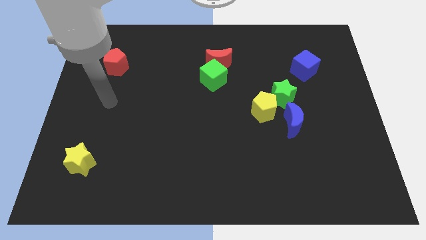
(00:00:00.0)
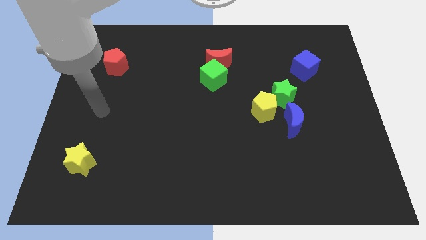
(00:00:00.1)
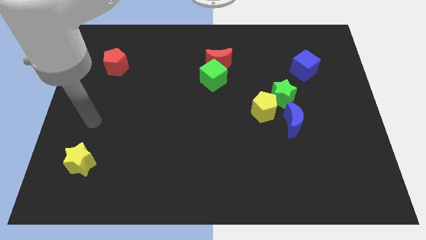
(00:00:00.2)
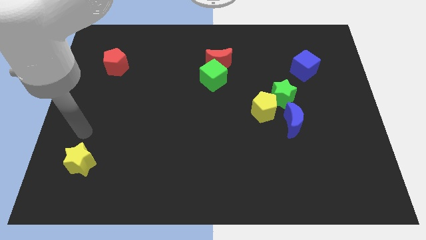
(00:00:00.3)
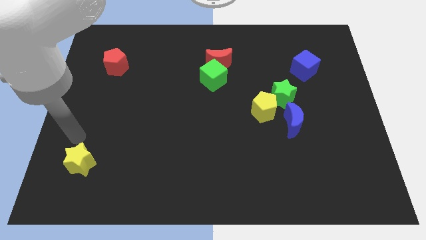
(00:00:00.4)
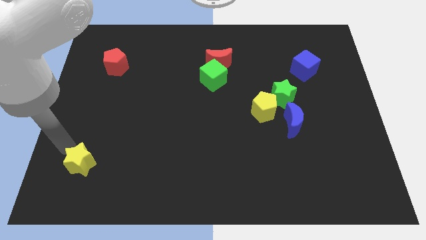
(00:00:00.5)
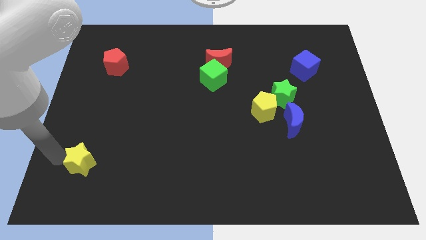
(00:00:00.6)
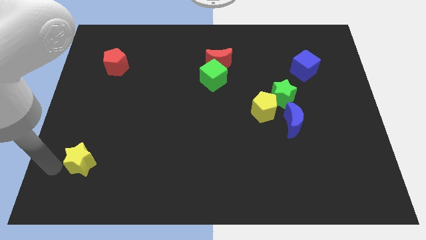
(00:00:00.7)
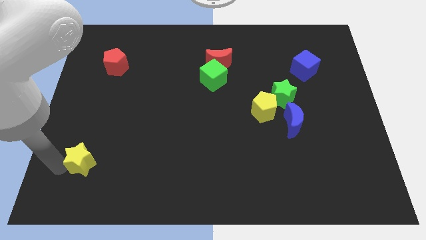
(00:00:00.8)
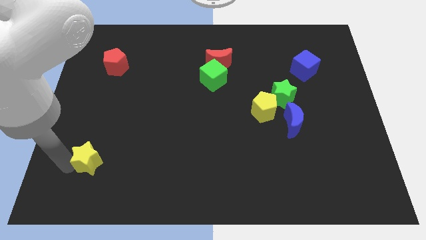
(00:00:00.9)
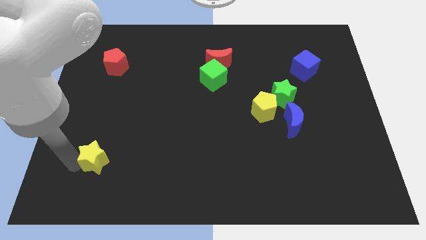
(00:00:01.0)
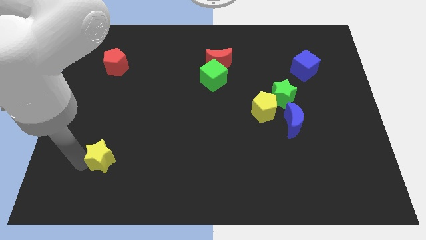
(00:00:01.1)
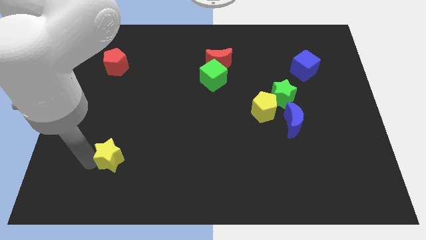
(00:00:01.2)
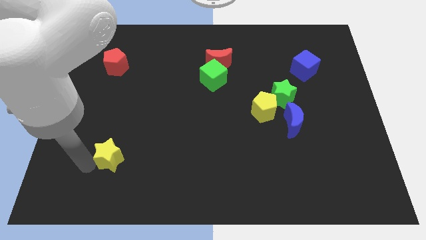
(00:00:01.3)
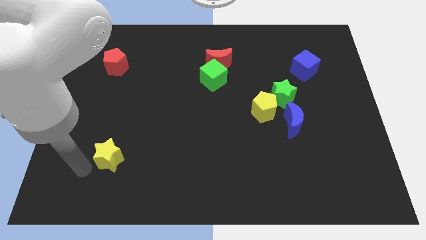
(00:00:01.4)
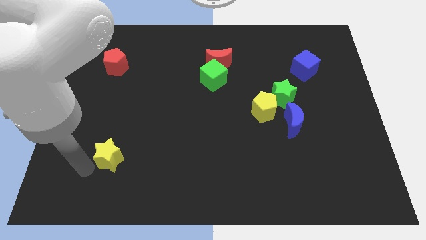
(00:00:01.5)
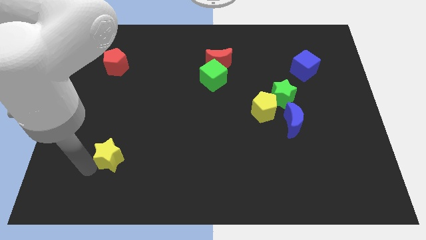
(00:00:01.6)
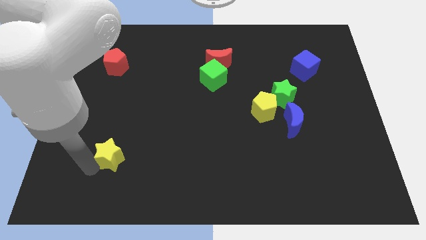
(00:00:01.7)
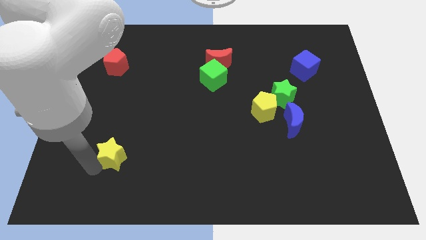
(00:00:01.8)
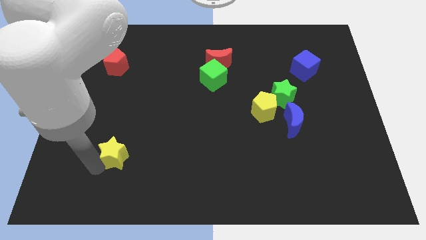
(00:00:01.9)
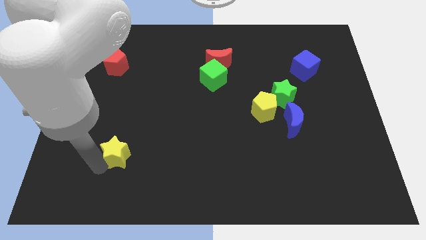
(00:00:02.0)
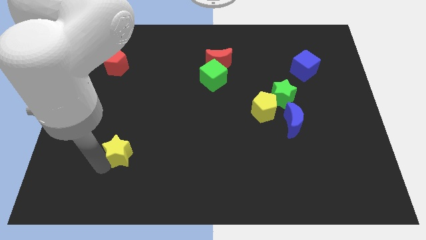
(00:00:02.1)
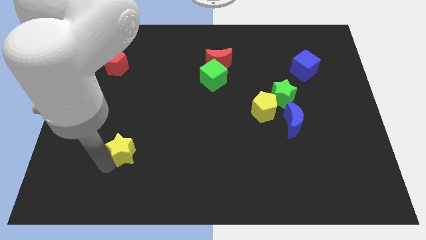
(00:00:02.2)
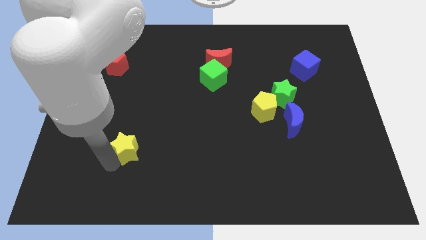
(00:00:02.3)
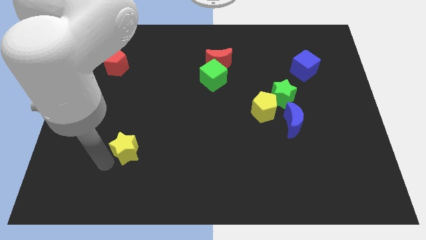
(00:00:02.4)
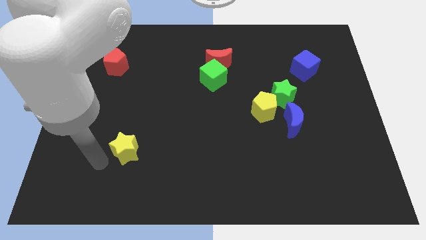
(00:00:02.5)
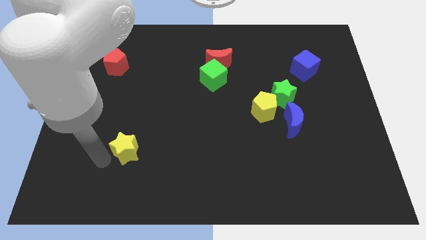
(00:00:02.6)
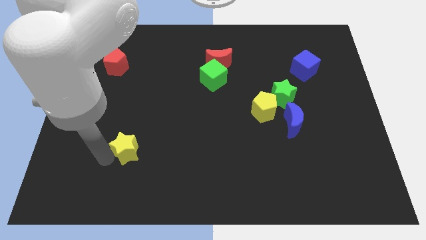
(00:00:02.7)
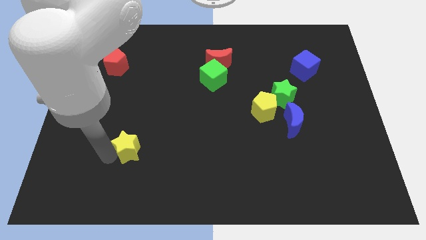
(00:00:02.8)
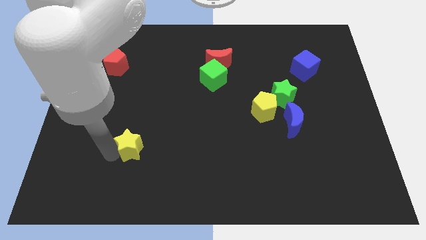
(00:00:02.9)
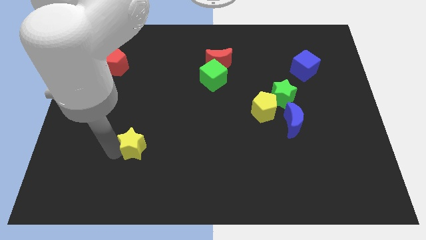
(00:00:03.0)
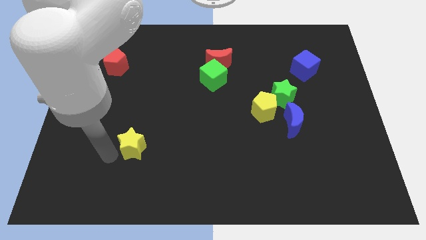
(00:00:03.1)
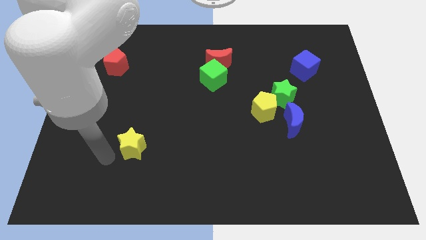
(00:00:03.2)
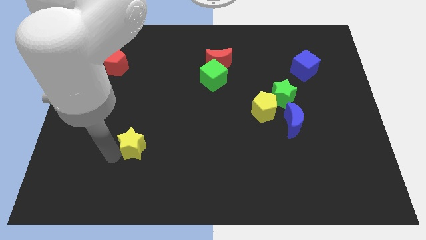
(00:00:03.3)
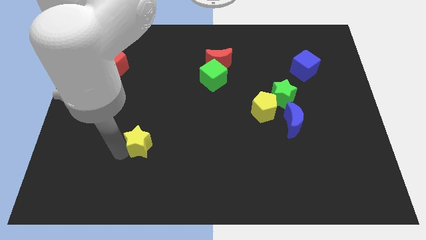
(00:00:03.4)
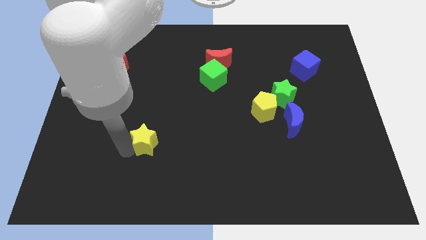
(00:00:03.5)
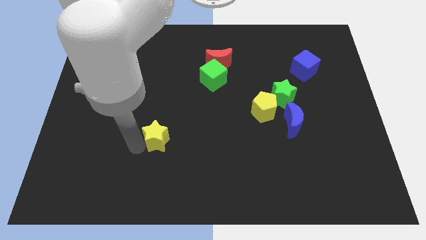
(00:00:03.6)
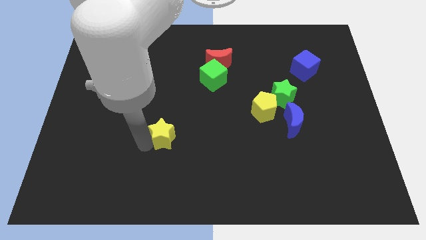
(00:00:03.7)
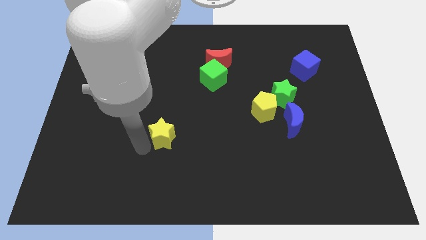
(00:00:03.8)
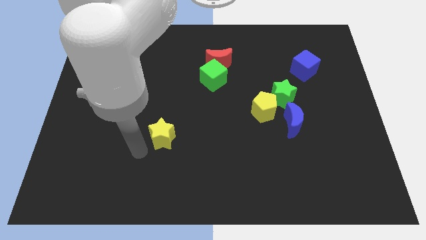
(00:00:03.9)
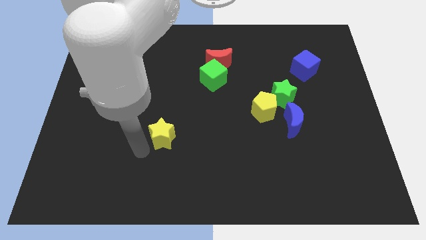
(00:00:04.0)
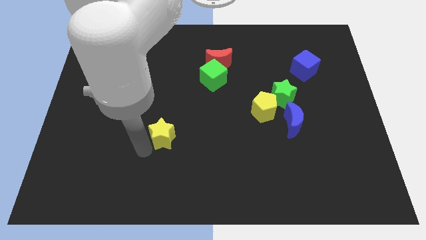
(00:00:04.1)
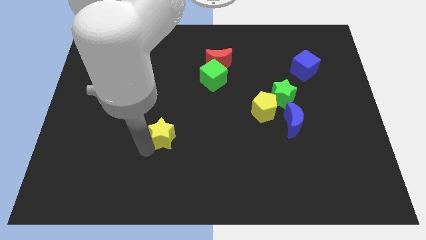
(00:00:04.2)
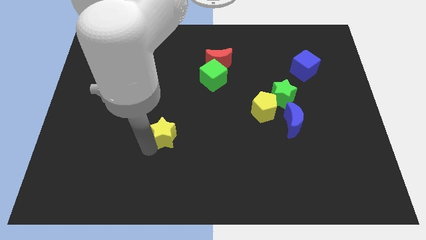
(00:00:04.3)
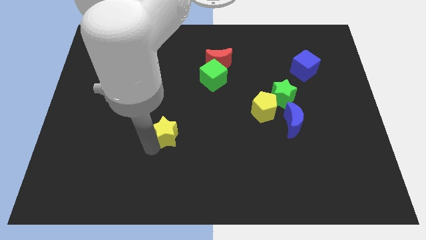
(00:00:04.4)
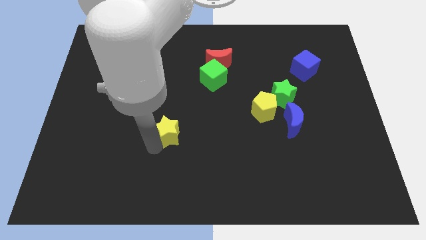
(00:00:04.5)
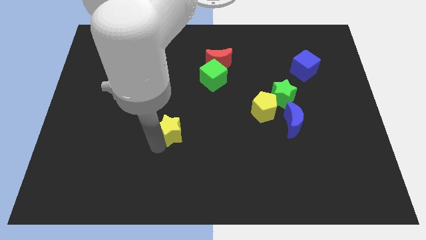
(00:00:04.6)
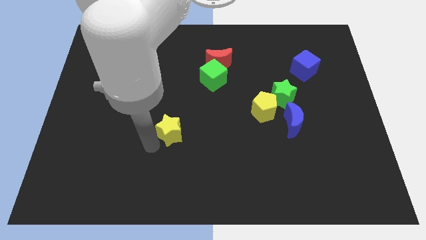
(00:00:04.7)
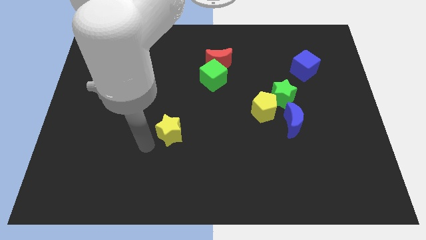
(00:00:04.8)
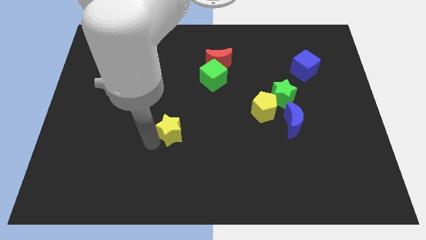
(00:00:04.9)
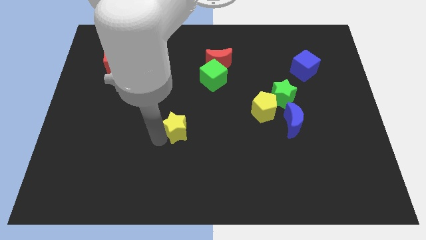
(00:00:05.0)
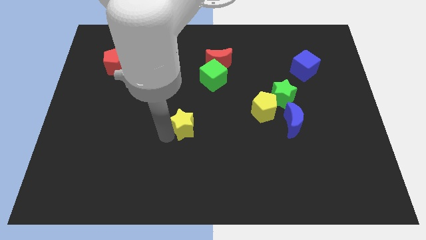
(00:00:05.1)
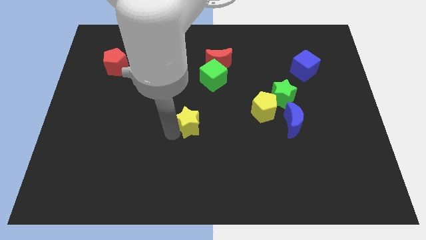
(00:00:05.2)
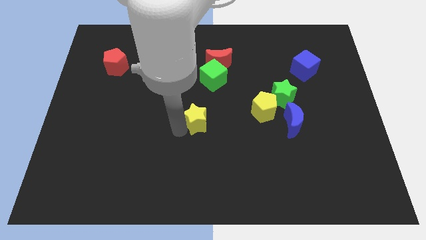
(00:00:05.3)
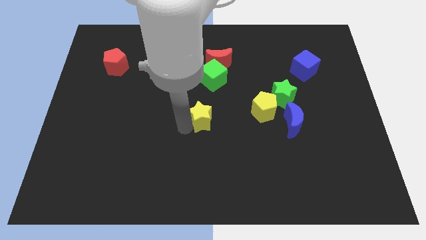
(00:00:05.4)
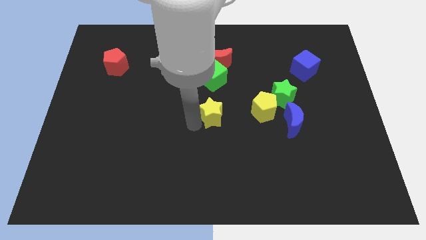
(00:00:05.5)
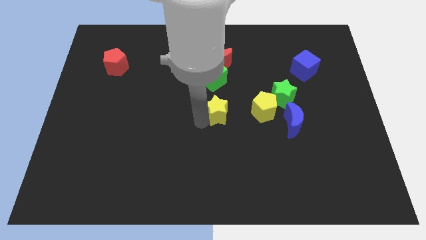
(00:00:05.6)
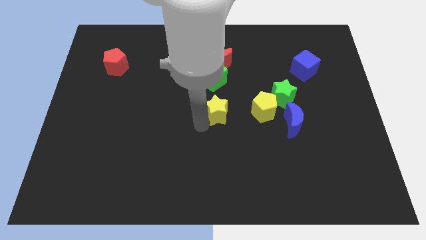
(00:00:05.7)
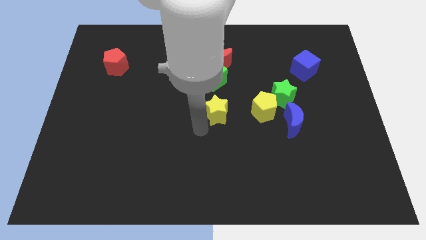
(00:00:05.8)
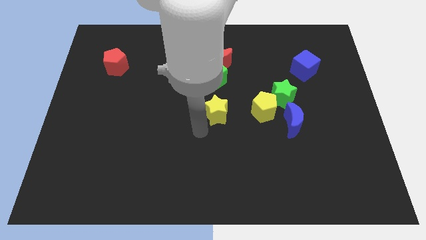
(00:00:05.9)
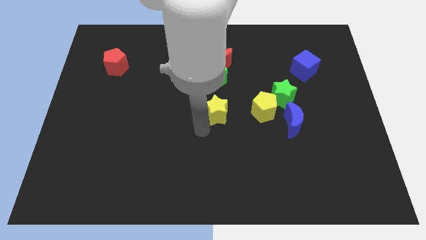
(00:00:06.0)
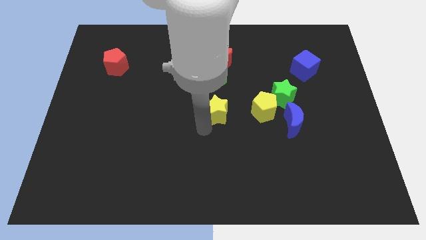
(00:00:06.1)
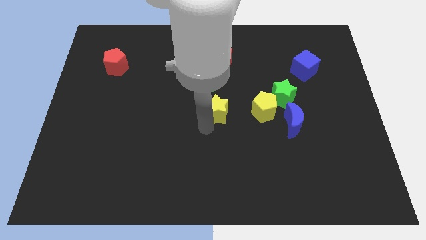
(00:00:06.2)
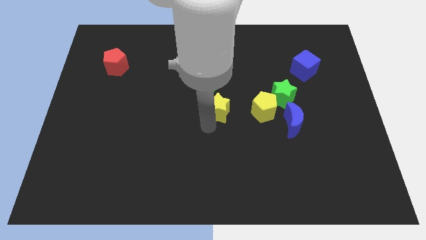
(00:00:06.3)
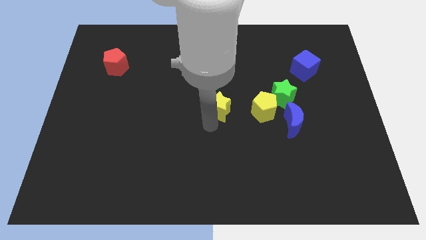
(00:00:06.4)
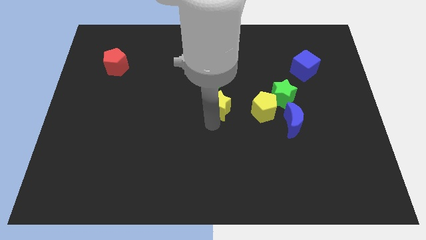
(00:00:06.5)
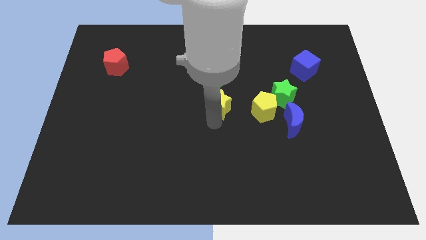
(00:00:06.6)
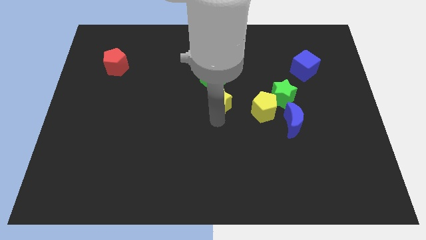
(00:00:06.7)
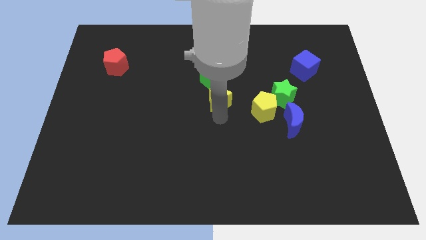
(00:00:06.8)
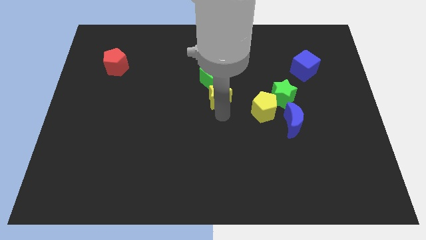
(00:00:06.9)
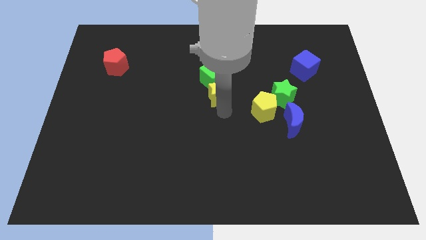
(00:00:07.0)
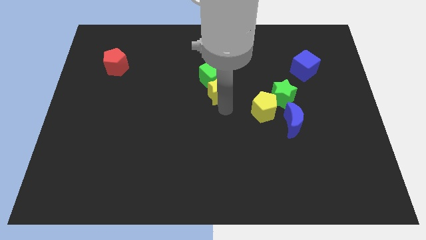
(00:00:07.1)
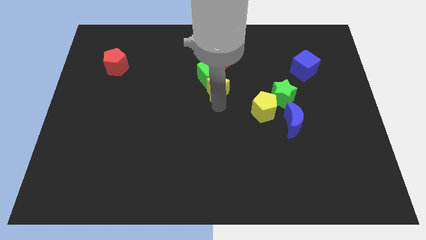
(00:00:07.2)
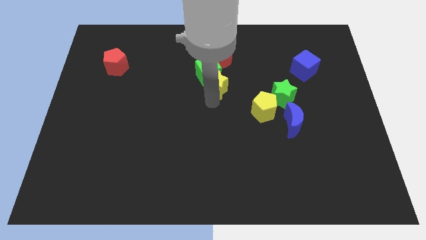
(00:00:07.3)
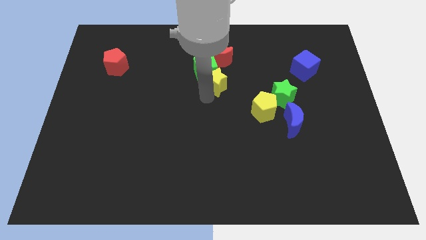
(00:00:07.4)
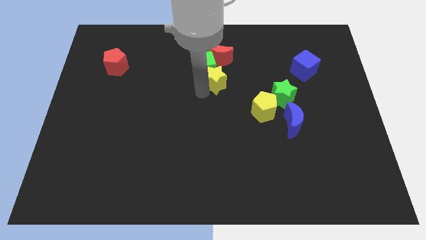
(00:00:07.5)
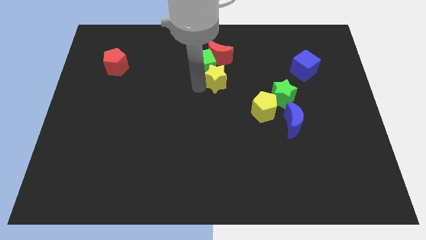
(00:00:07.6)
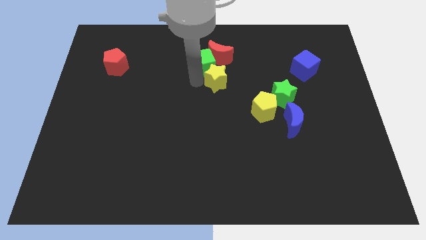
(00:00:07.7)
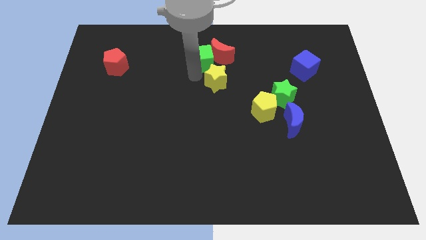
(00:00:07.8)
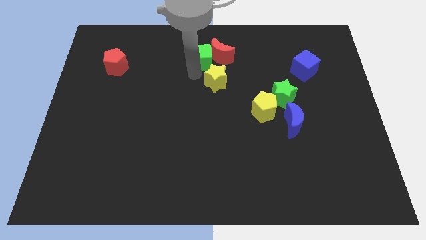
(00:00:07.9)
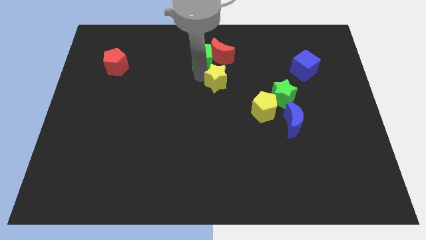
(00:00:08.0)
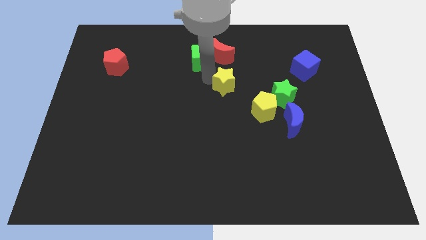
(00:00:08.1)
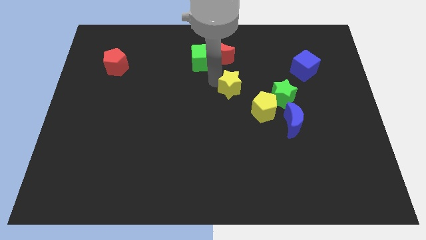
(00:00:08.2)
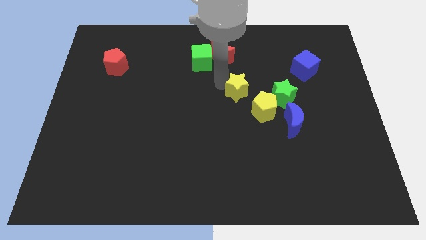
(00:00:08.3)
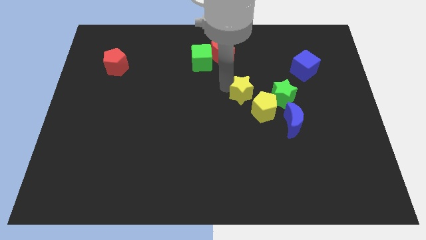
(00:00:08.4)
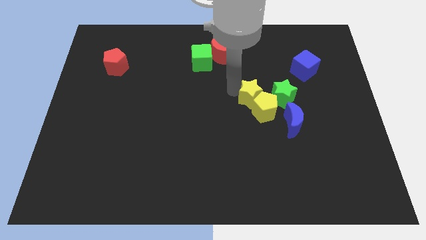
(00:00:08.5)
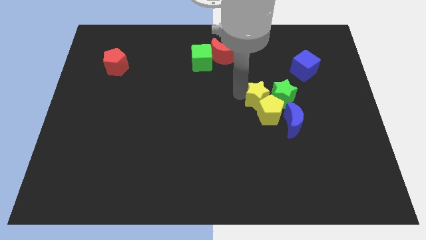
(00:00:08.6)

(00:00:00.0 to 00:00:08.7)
move the yellow star close to the green star
